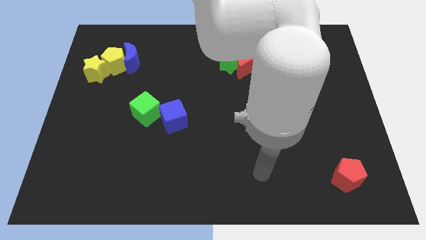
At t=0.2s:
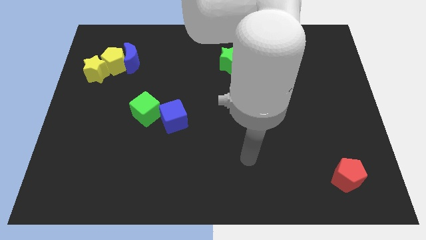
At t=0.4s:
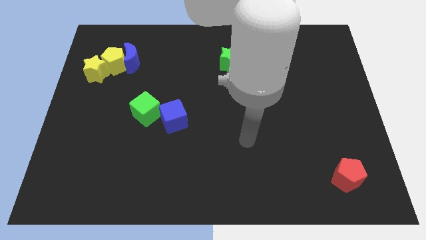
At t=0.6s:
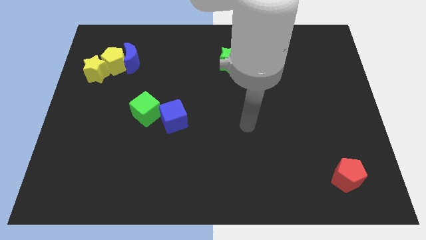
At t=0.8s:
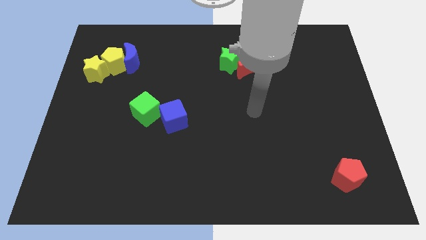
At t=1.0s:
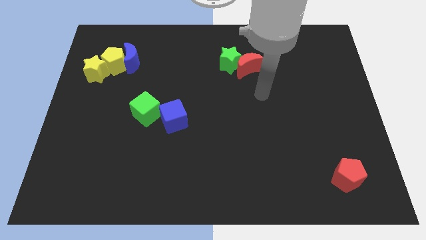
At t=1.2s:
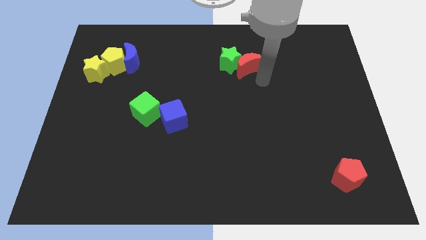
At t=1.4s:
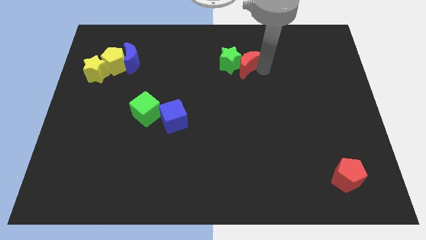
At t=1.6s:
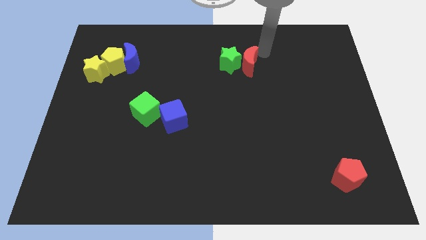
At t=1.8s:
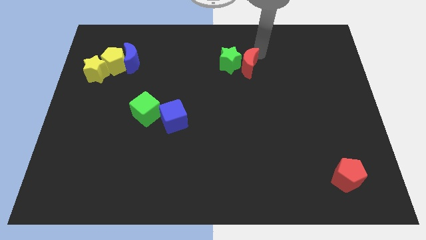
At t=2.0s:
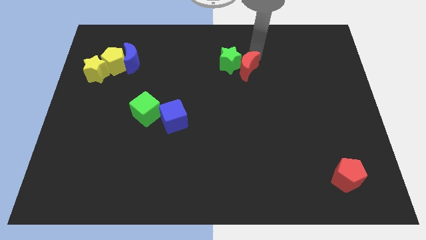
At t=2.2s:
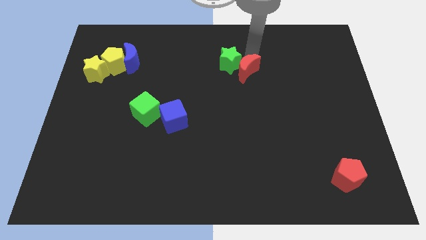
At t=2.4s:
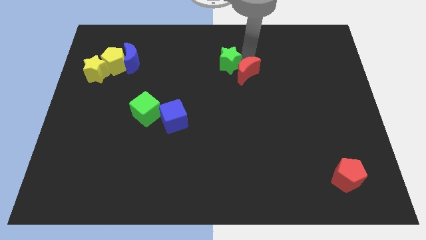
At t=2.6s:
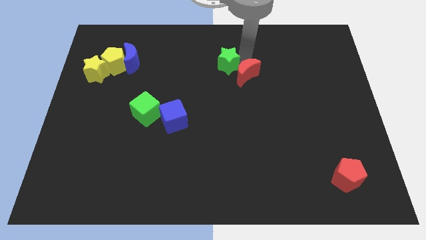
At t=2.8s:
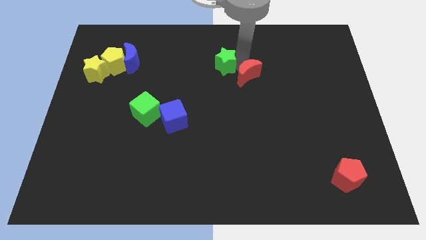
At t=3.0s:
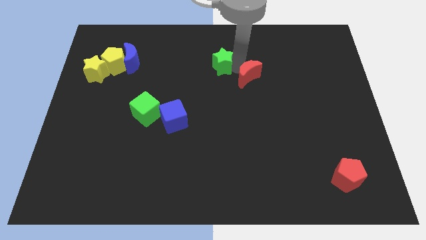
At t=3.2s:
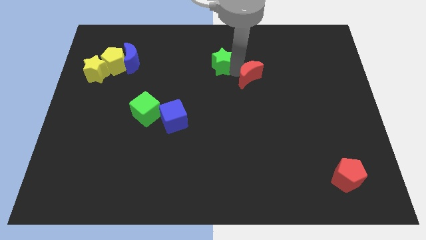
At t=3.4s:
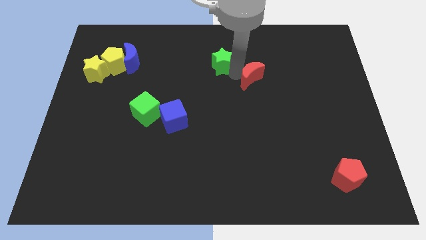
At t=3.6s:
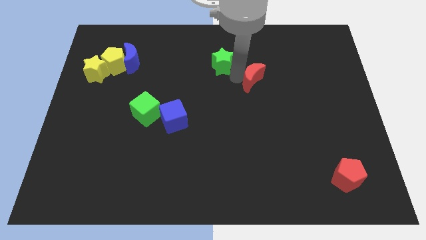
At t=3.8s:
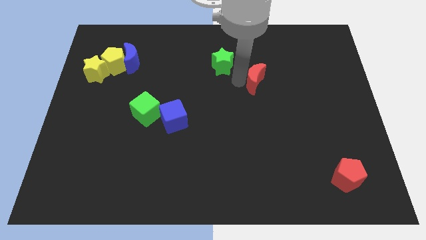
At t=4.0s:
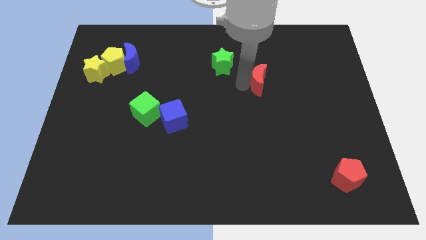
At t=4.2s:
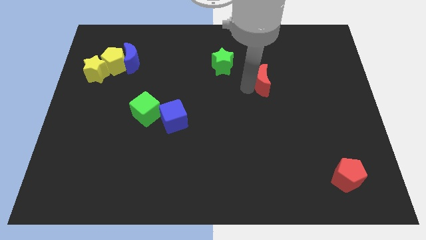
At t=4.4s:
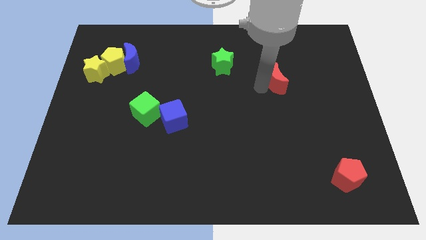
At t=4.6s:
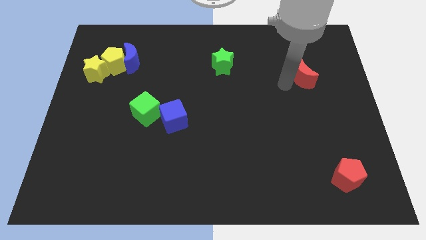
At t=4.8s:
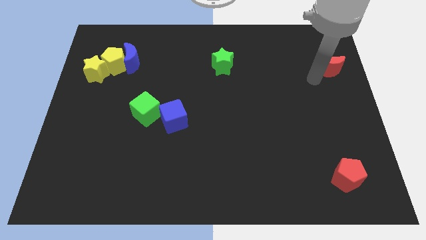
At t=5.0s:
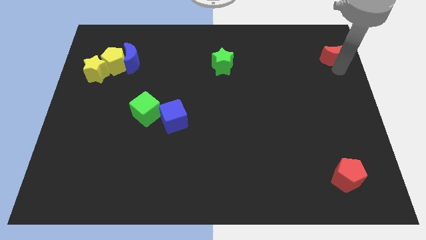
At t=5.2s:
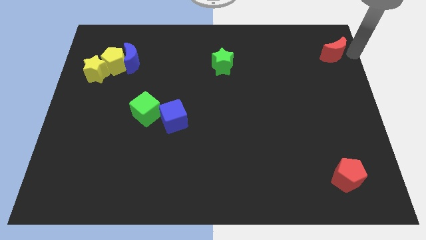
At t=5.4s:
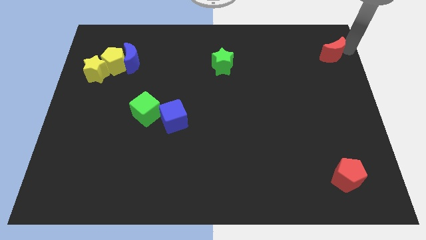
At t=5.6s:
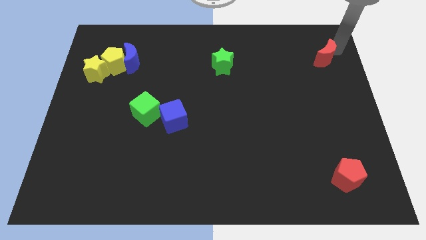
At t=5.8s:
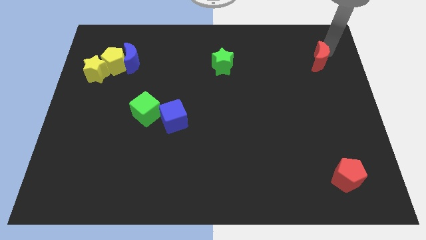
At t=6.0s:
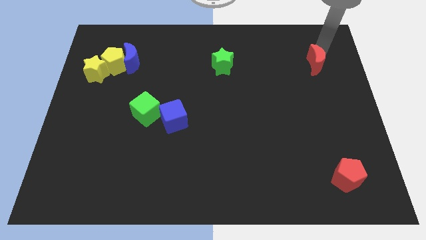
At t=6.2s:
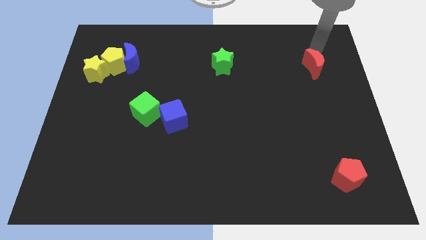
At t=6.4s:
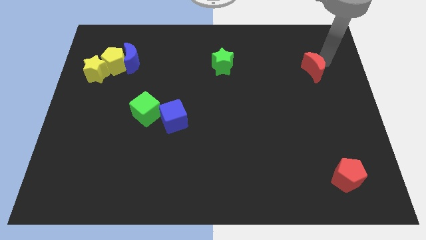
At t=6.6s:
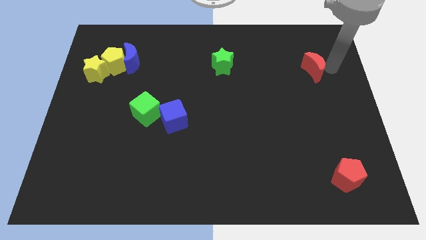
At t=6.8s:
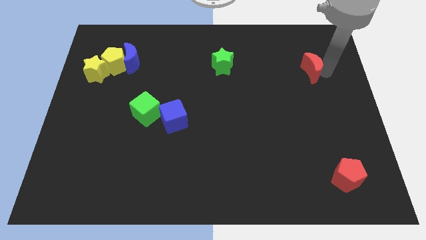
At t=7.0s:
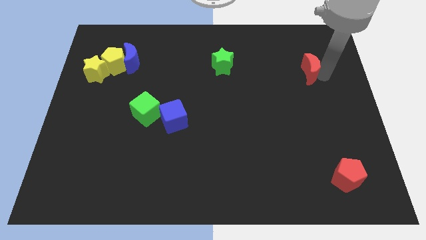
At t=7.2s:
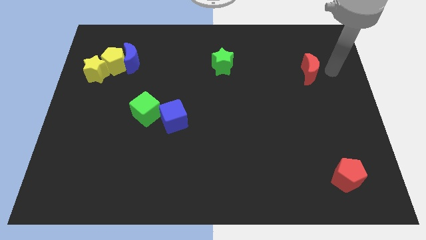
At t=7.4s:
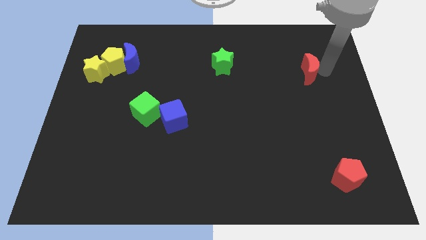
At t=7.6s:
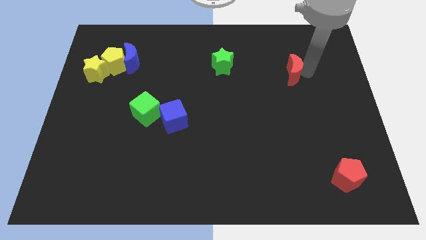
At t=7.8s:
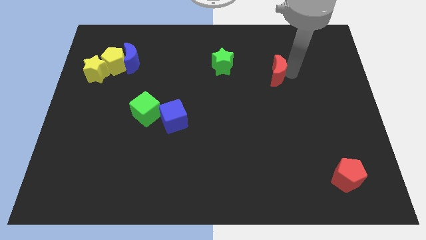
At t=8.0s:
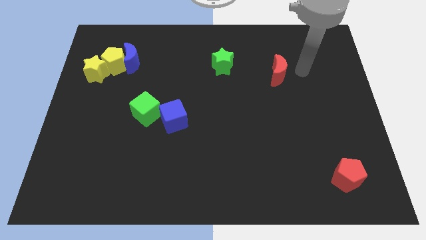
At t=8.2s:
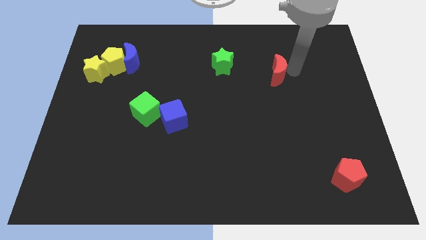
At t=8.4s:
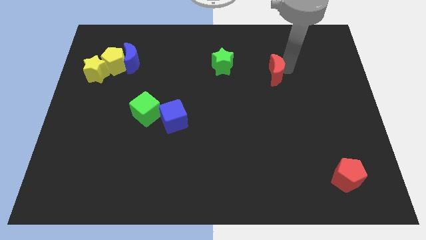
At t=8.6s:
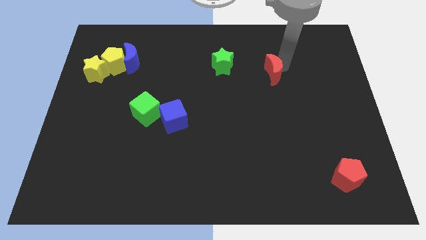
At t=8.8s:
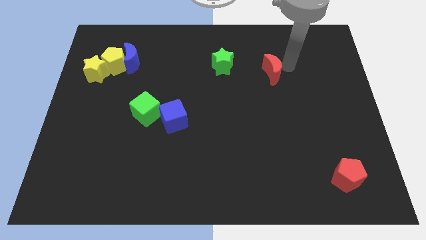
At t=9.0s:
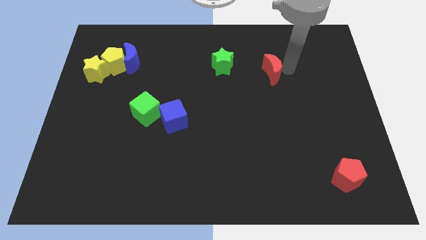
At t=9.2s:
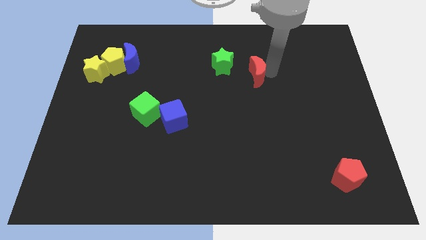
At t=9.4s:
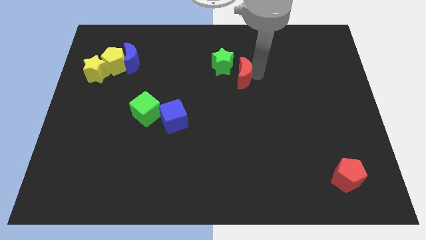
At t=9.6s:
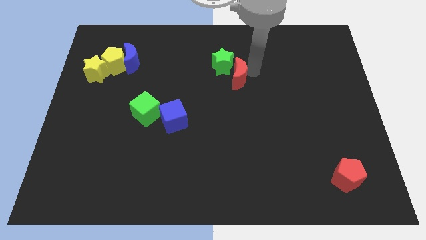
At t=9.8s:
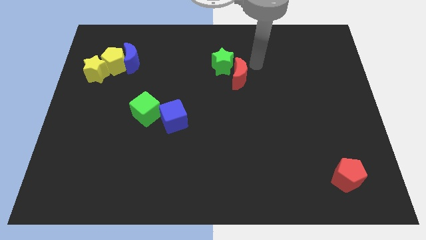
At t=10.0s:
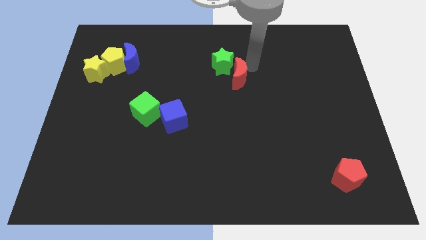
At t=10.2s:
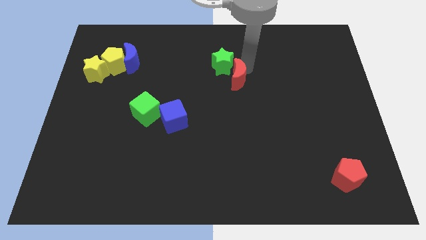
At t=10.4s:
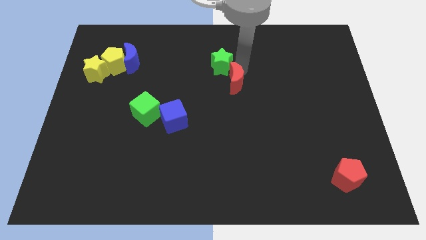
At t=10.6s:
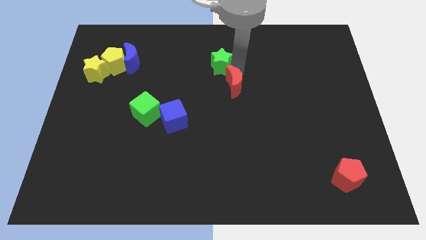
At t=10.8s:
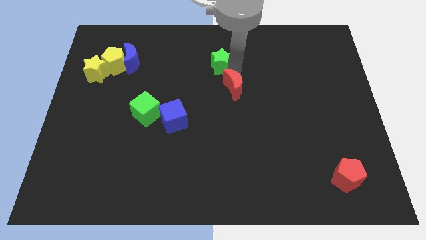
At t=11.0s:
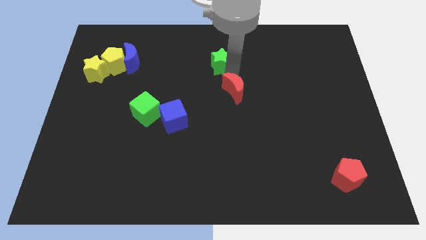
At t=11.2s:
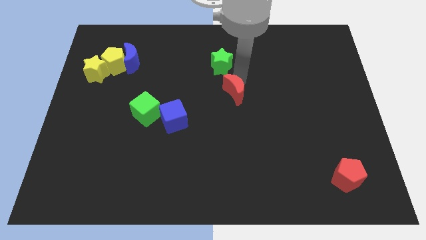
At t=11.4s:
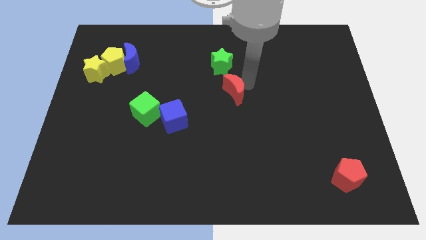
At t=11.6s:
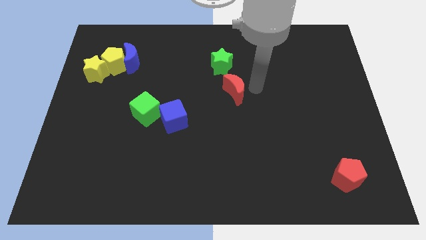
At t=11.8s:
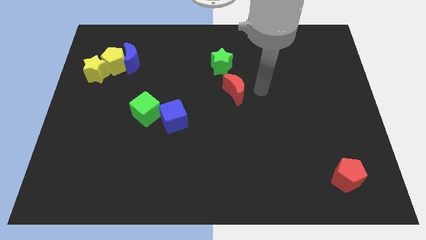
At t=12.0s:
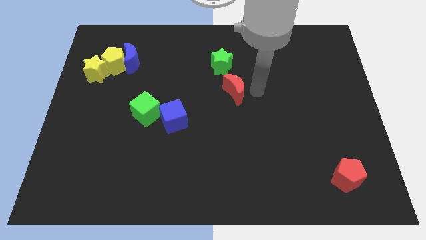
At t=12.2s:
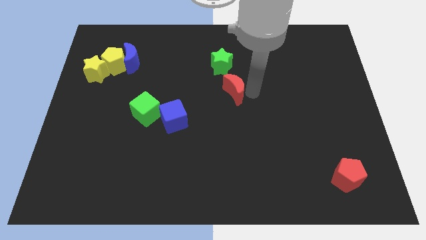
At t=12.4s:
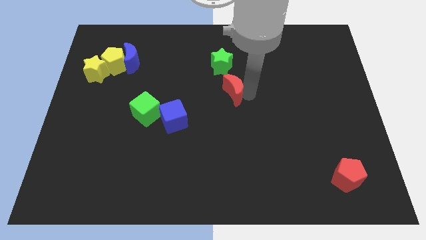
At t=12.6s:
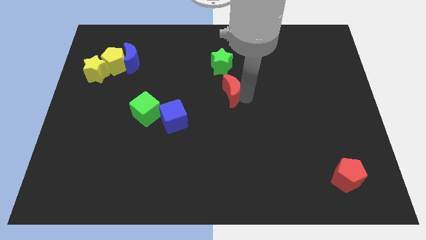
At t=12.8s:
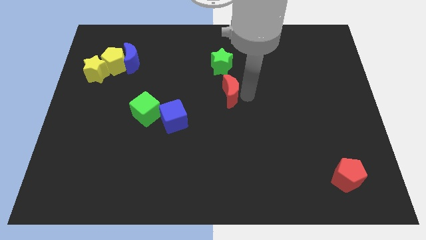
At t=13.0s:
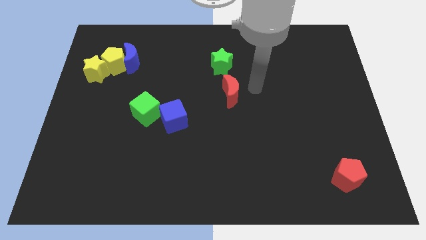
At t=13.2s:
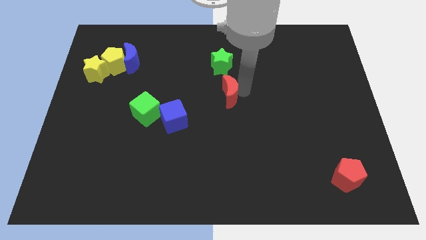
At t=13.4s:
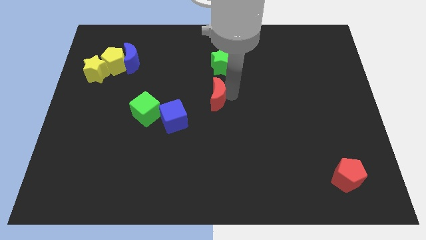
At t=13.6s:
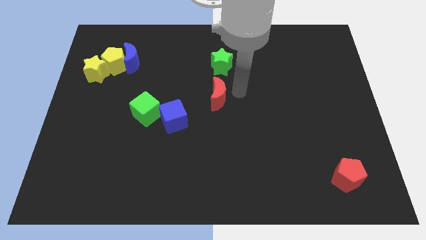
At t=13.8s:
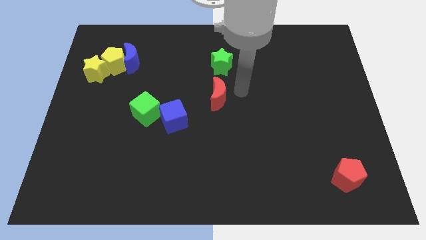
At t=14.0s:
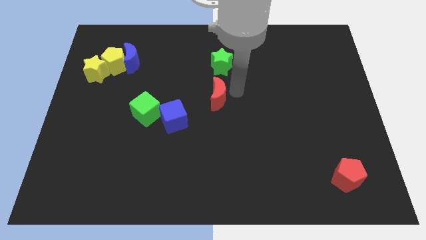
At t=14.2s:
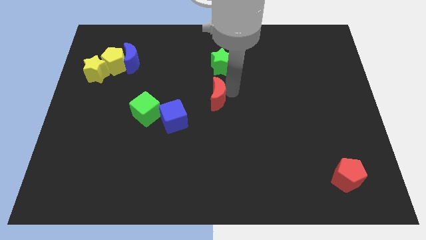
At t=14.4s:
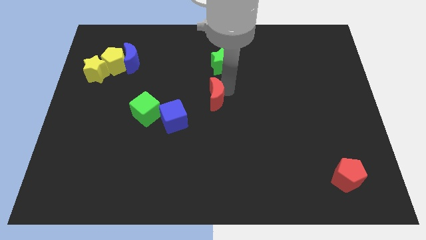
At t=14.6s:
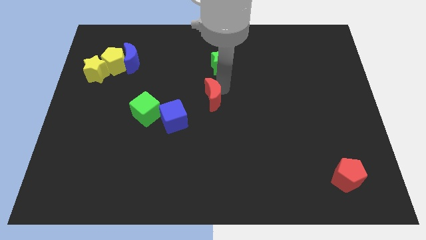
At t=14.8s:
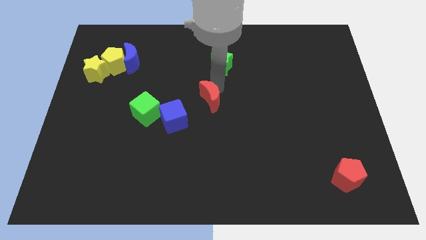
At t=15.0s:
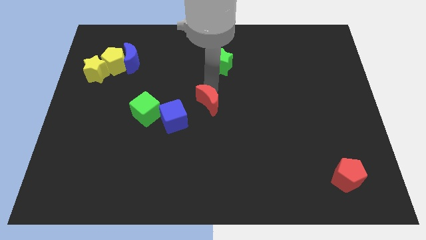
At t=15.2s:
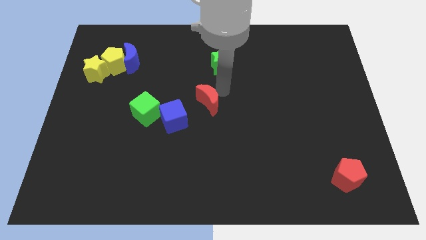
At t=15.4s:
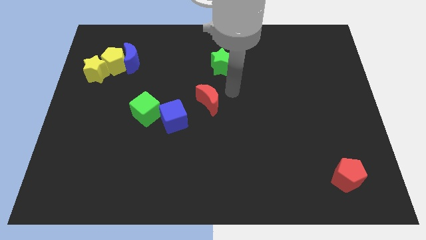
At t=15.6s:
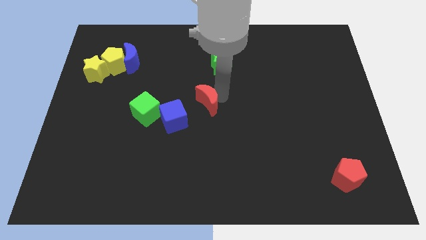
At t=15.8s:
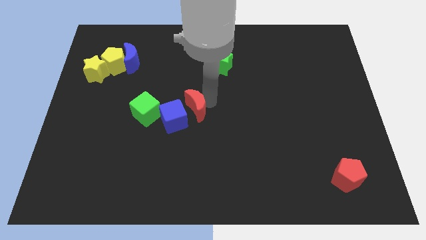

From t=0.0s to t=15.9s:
push the red moon to the blue cube
